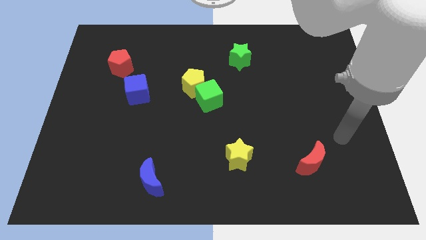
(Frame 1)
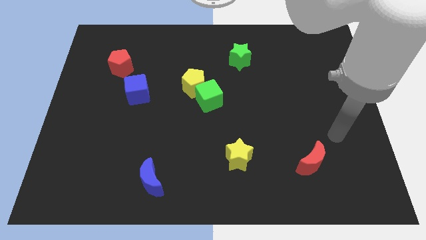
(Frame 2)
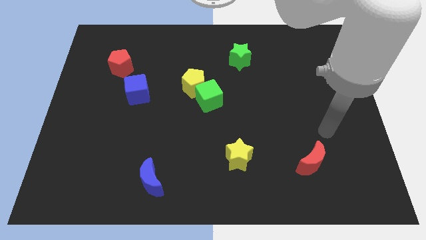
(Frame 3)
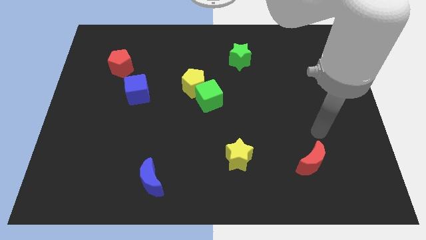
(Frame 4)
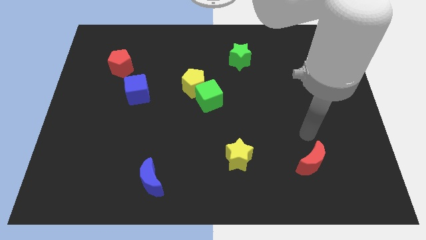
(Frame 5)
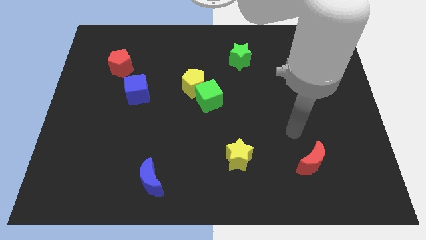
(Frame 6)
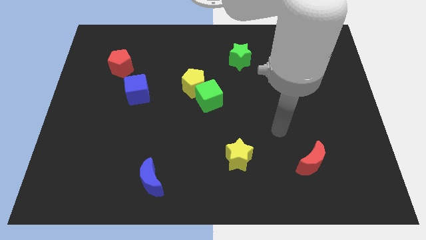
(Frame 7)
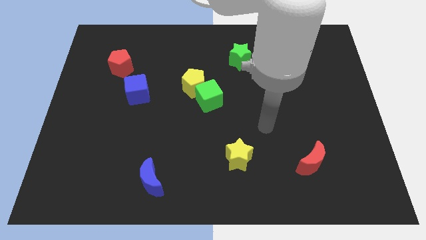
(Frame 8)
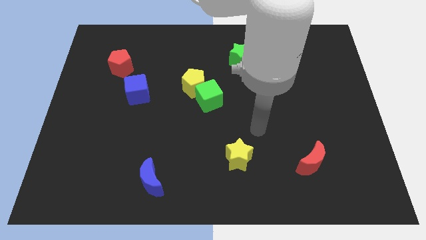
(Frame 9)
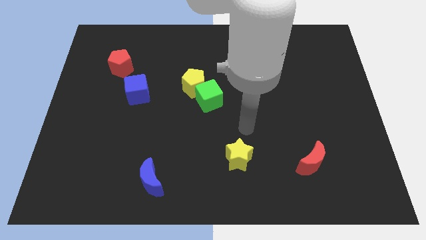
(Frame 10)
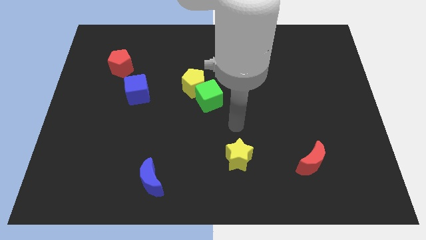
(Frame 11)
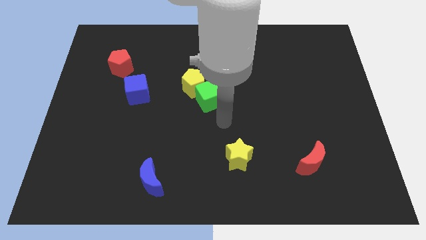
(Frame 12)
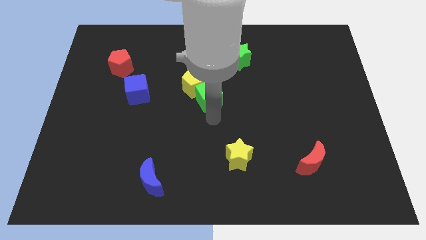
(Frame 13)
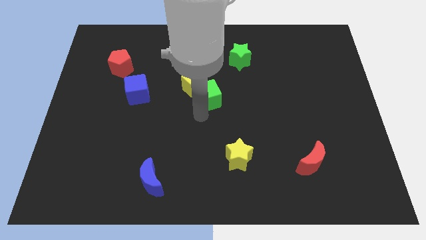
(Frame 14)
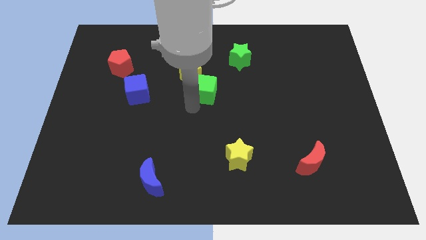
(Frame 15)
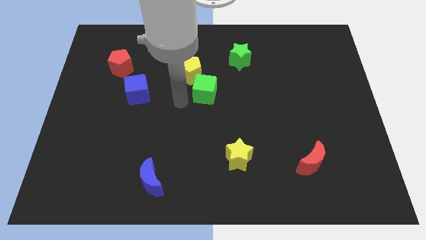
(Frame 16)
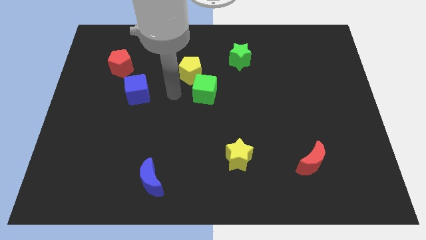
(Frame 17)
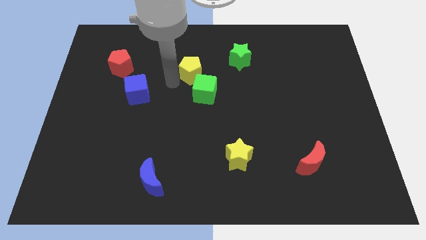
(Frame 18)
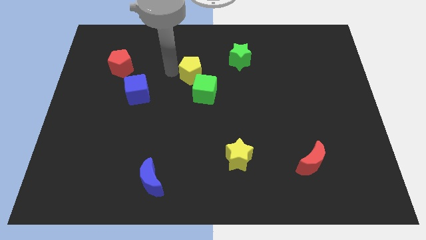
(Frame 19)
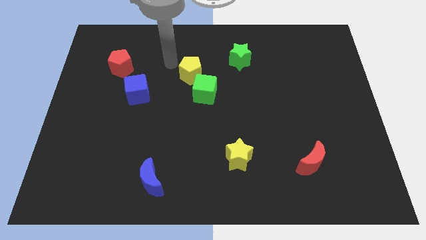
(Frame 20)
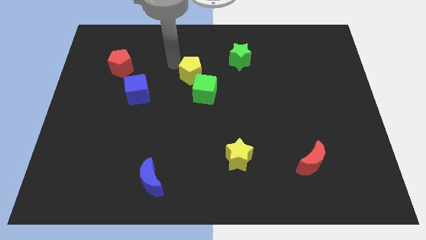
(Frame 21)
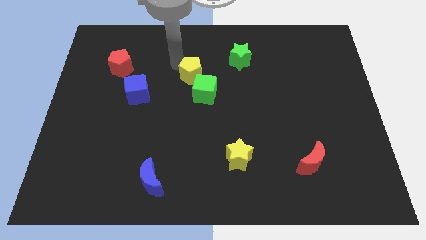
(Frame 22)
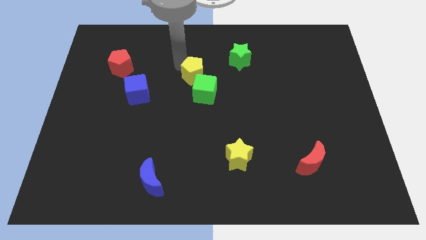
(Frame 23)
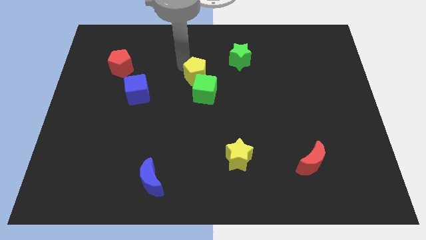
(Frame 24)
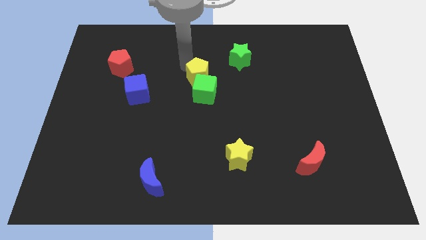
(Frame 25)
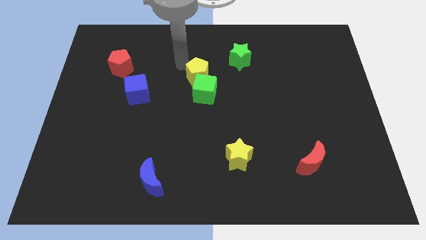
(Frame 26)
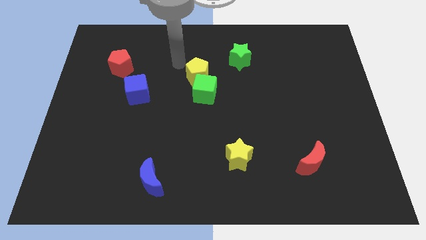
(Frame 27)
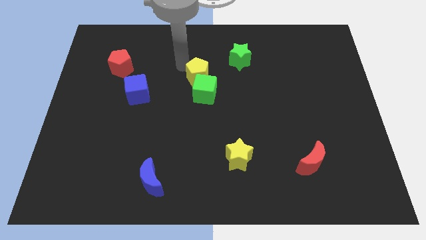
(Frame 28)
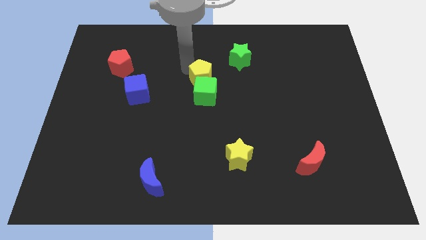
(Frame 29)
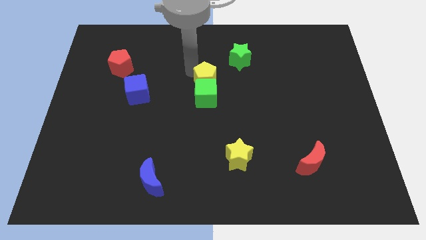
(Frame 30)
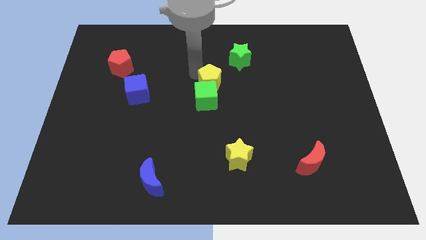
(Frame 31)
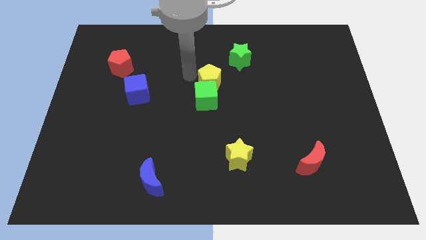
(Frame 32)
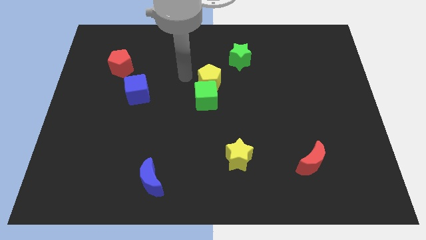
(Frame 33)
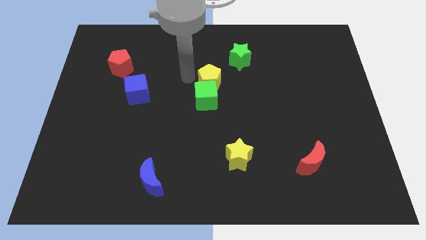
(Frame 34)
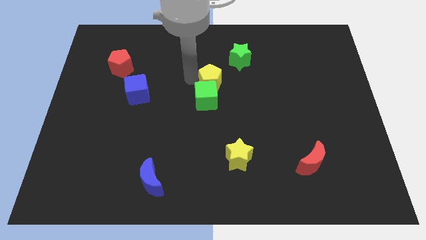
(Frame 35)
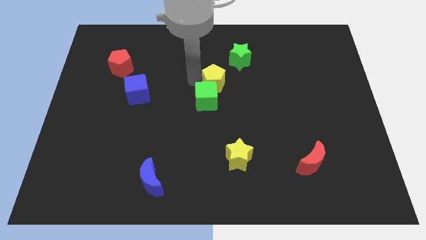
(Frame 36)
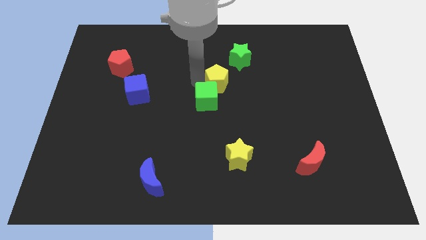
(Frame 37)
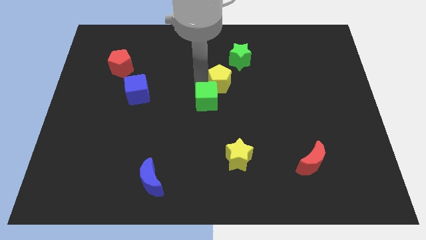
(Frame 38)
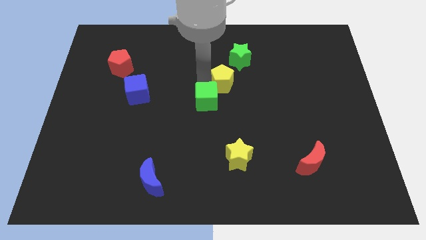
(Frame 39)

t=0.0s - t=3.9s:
slide the yellow pentagon a little bit to the right

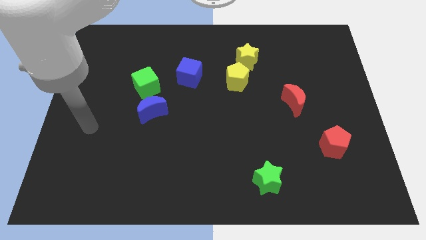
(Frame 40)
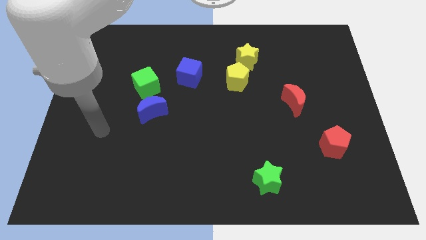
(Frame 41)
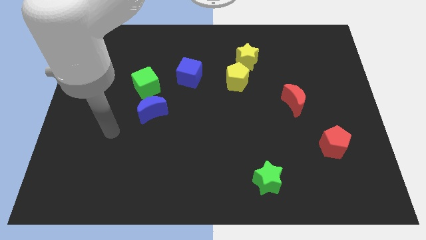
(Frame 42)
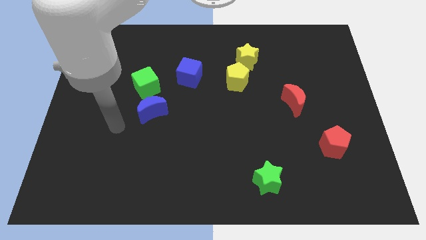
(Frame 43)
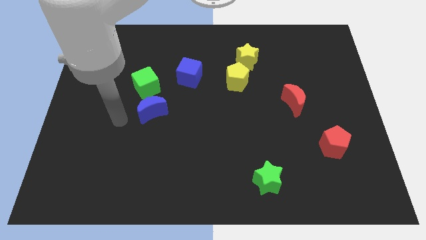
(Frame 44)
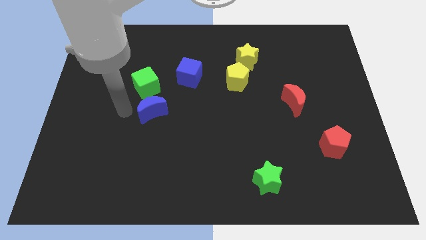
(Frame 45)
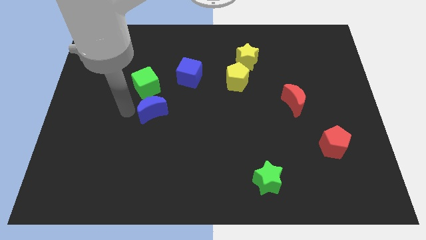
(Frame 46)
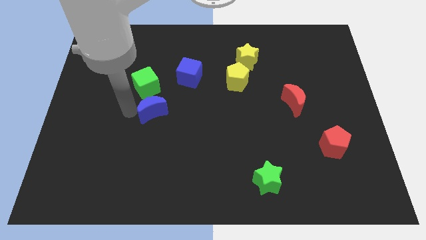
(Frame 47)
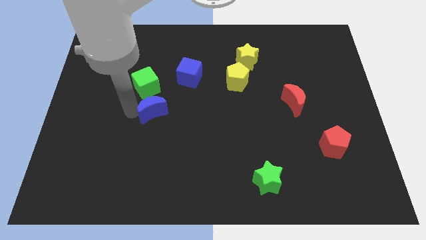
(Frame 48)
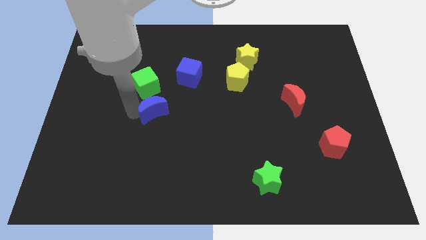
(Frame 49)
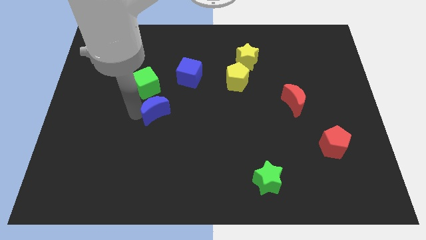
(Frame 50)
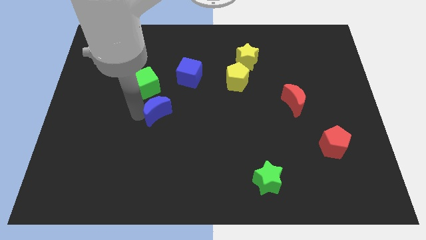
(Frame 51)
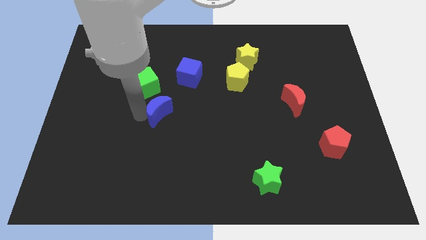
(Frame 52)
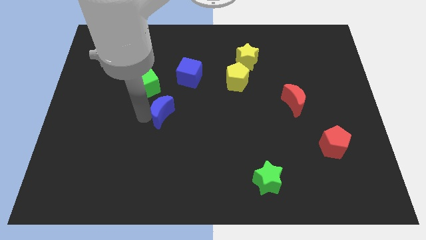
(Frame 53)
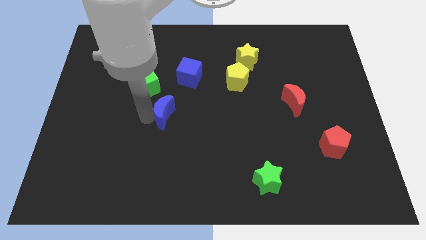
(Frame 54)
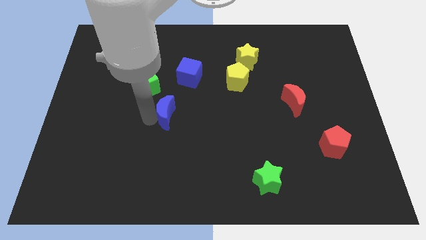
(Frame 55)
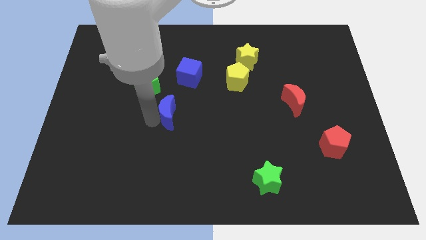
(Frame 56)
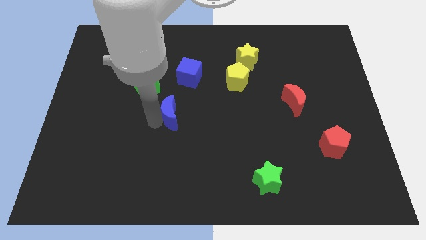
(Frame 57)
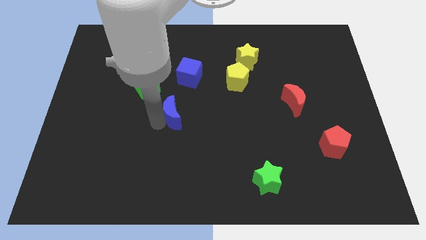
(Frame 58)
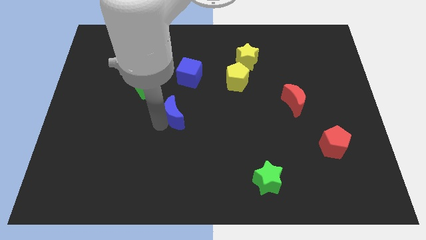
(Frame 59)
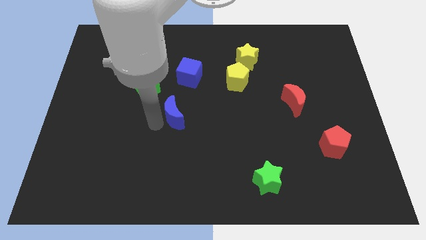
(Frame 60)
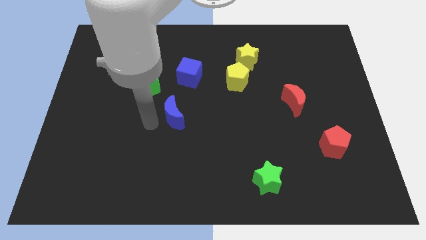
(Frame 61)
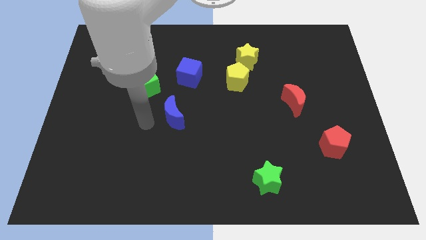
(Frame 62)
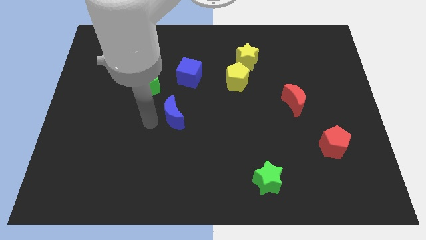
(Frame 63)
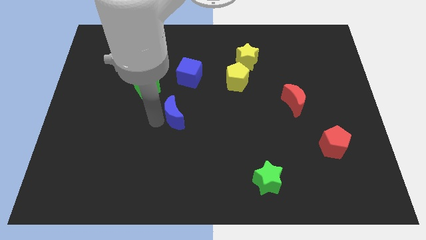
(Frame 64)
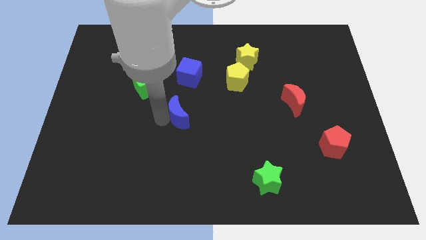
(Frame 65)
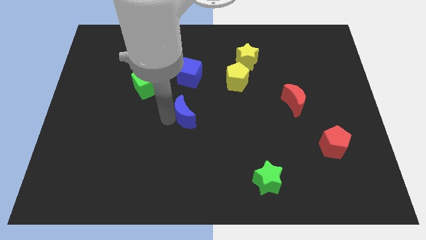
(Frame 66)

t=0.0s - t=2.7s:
slide the blue moon slightly right

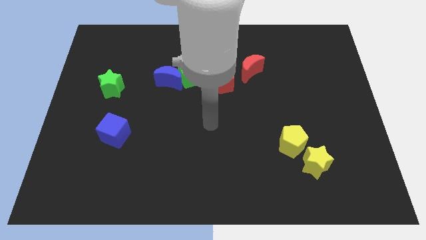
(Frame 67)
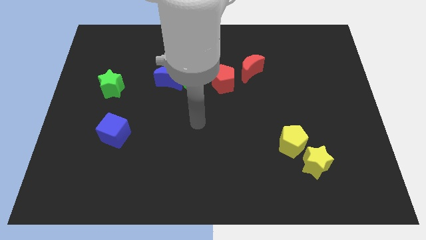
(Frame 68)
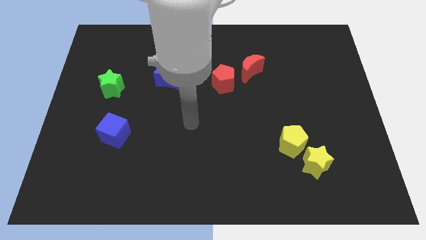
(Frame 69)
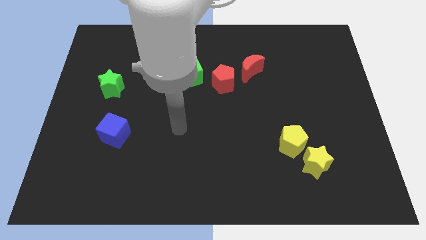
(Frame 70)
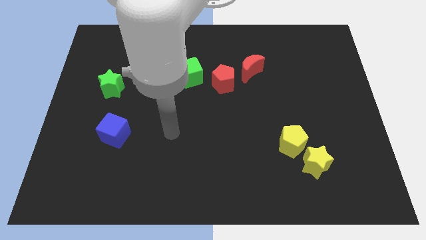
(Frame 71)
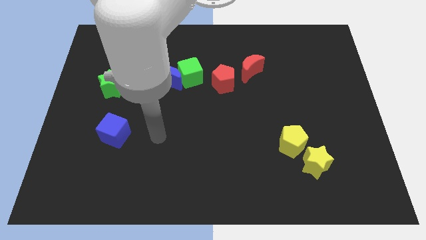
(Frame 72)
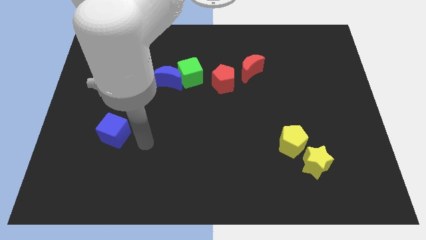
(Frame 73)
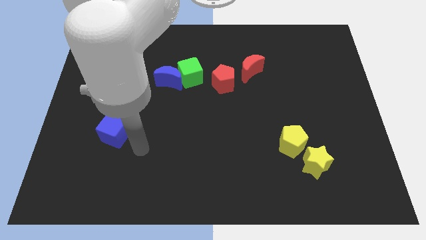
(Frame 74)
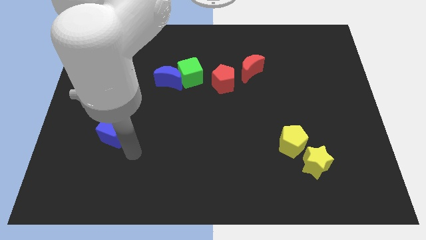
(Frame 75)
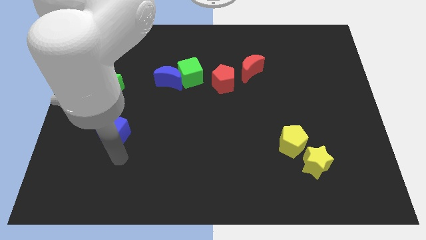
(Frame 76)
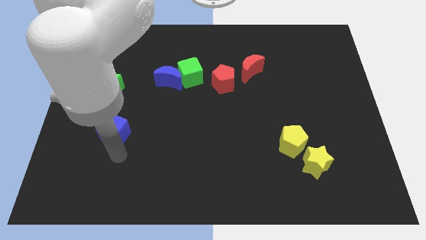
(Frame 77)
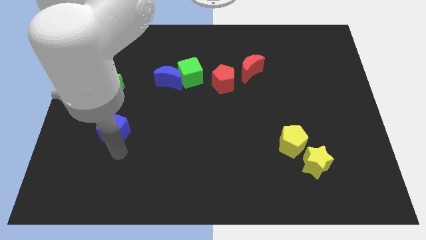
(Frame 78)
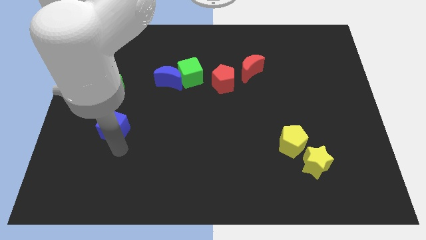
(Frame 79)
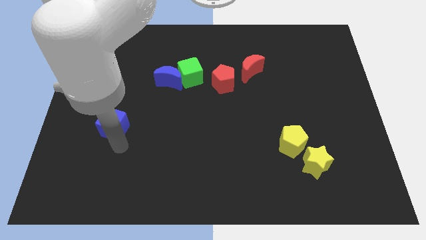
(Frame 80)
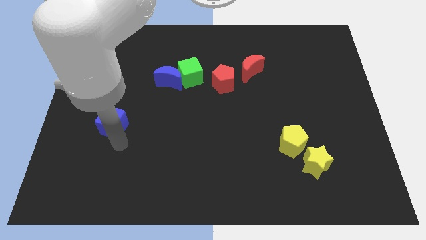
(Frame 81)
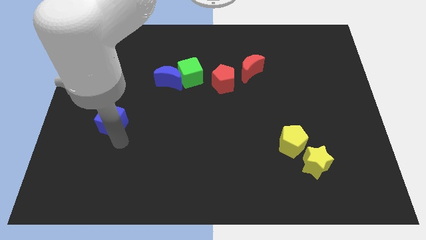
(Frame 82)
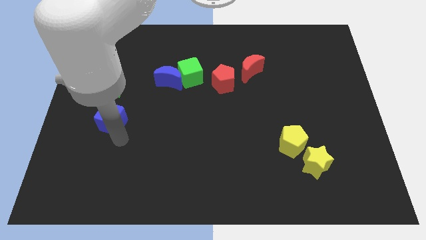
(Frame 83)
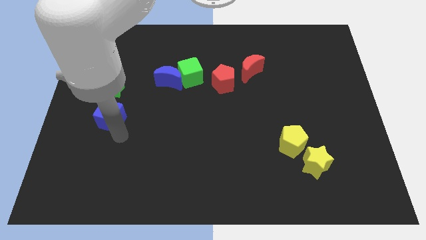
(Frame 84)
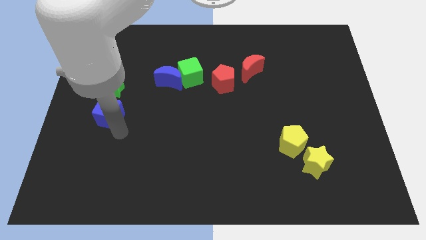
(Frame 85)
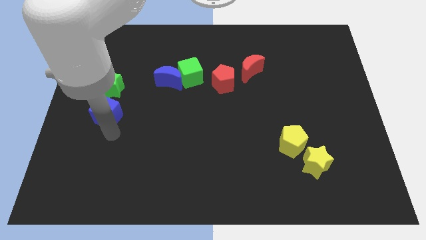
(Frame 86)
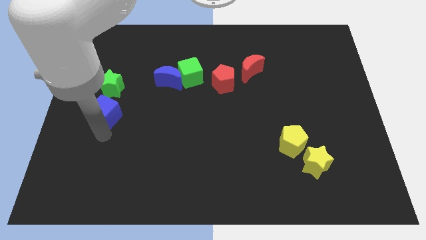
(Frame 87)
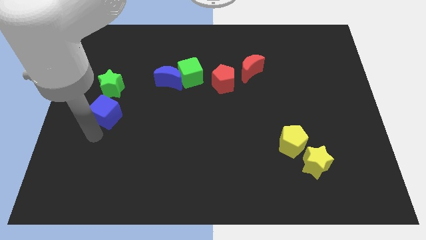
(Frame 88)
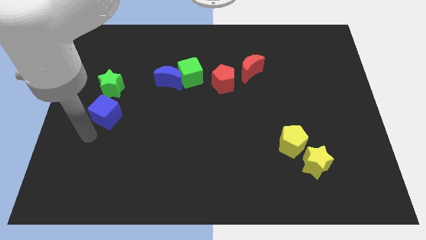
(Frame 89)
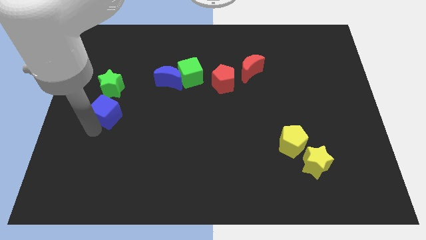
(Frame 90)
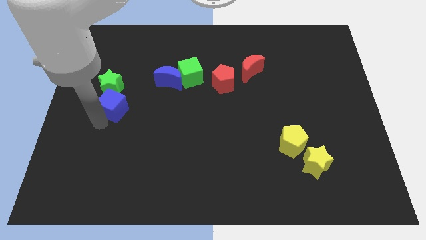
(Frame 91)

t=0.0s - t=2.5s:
slide the blue cube upwards a bit
